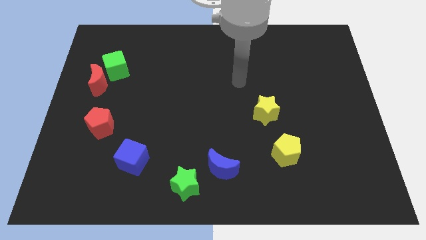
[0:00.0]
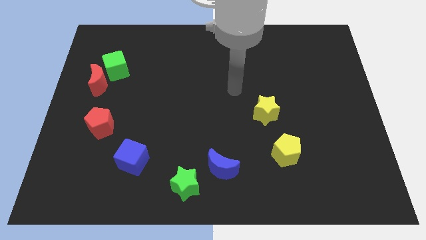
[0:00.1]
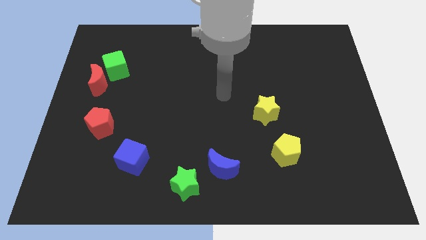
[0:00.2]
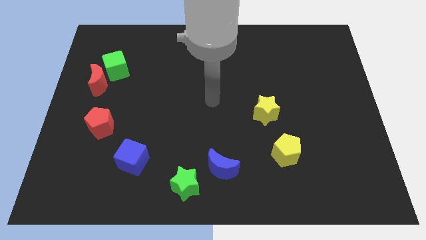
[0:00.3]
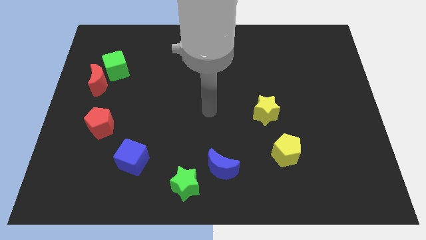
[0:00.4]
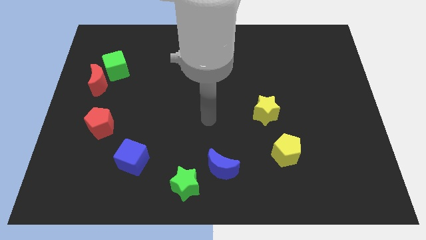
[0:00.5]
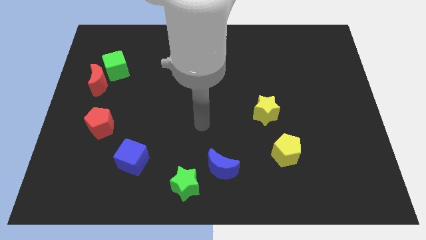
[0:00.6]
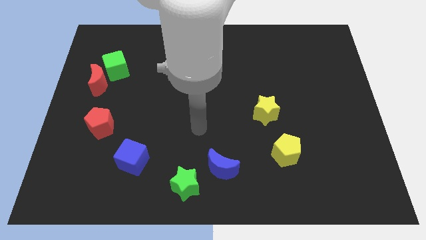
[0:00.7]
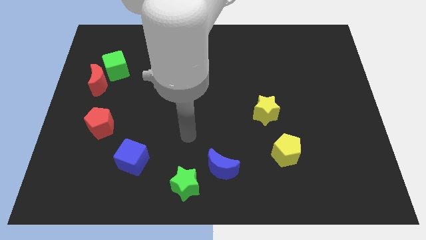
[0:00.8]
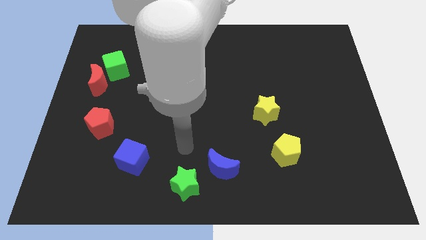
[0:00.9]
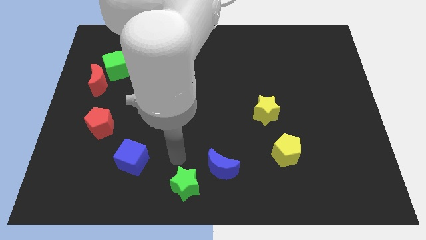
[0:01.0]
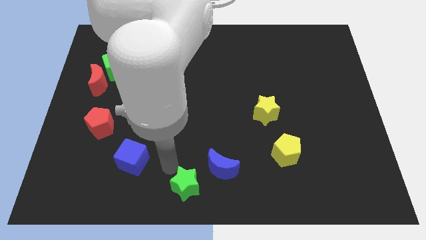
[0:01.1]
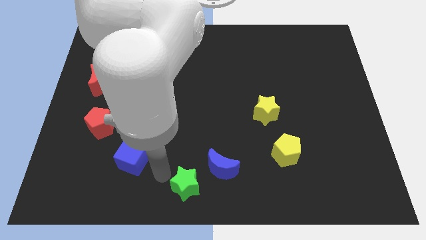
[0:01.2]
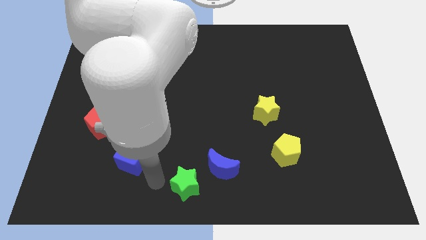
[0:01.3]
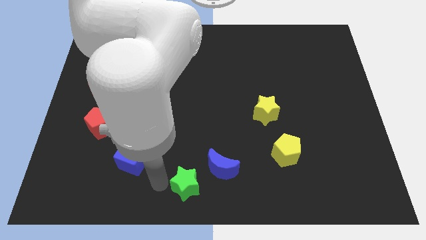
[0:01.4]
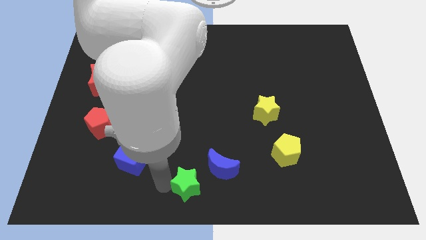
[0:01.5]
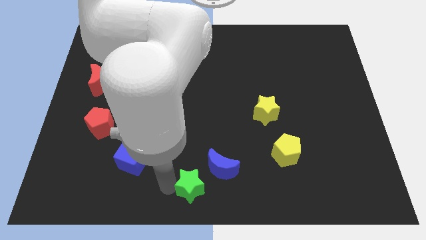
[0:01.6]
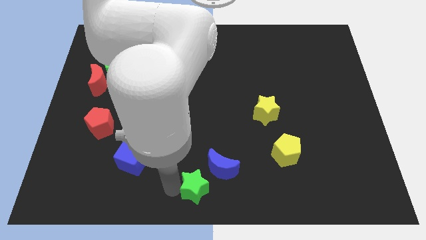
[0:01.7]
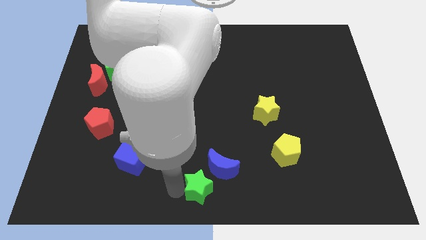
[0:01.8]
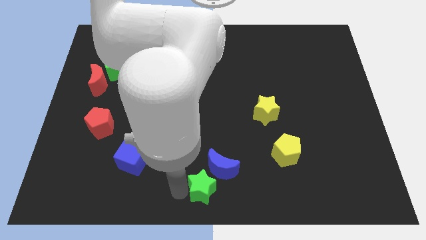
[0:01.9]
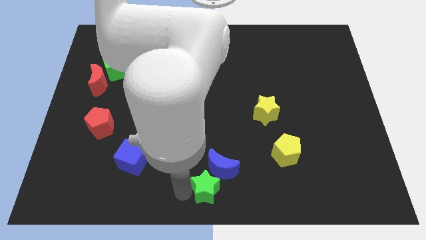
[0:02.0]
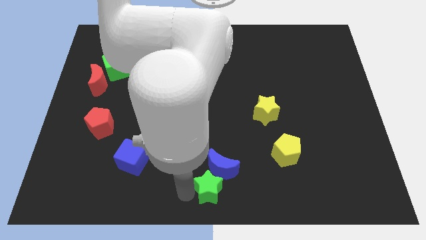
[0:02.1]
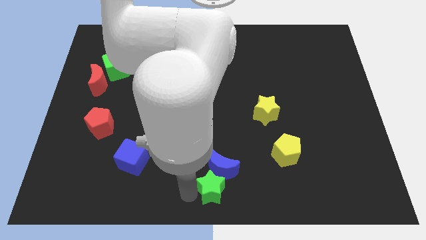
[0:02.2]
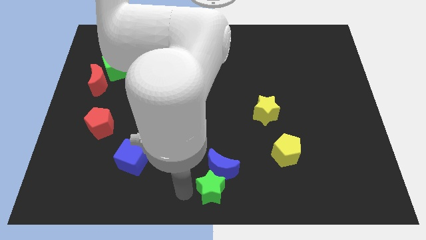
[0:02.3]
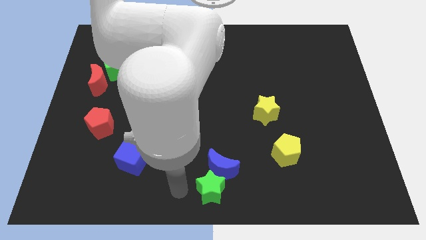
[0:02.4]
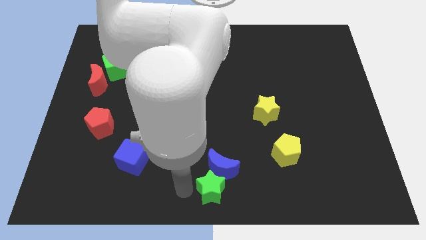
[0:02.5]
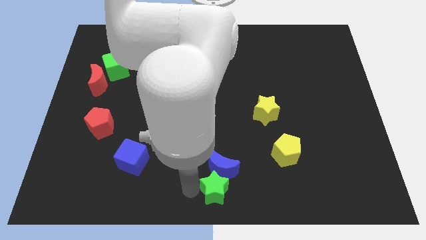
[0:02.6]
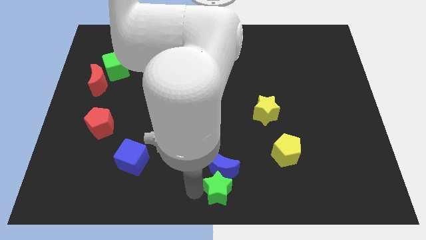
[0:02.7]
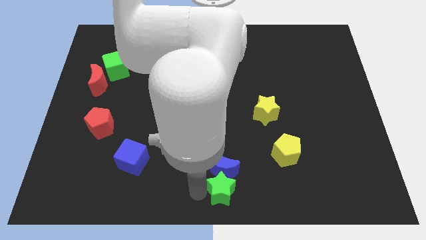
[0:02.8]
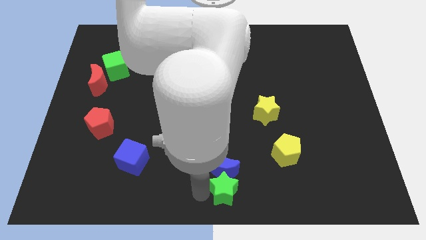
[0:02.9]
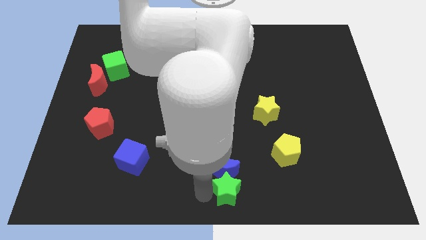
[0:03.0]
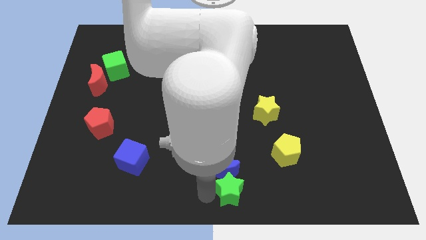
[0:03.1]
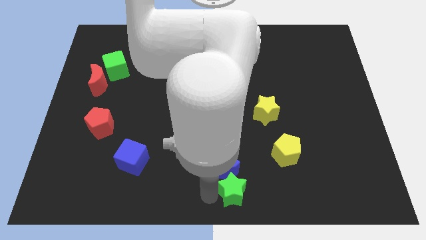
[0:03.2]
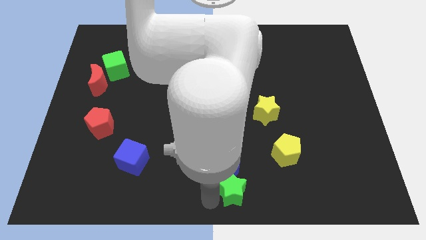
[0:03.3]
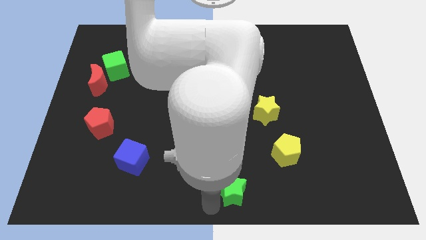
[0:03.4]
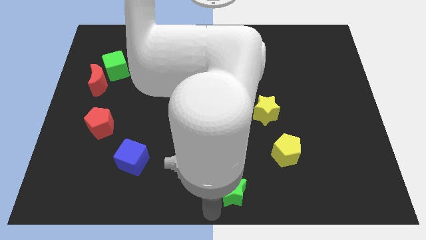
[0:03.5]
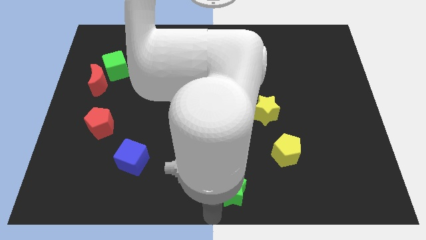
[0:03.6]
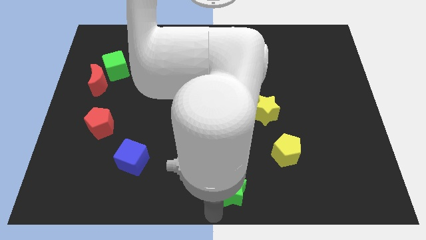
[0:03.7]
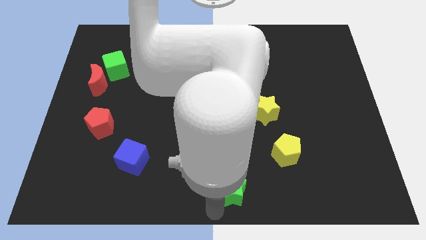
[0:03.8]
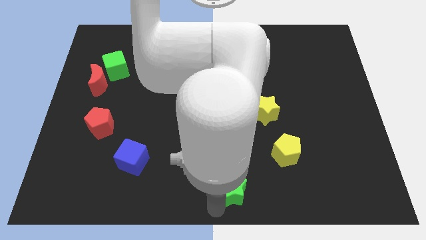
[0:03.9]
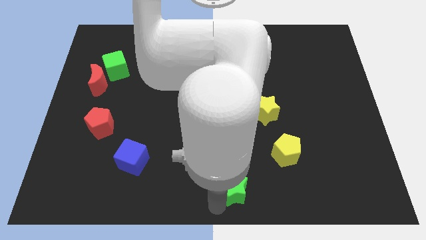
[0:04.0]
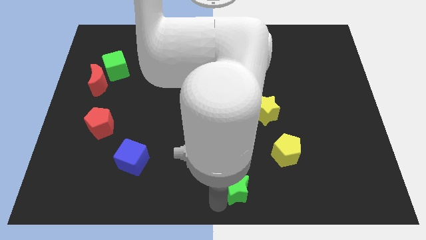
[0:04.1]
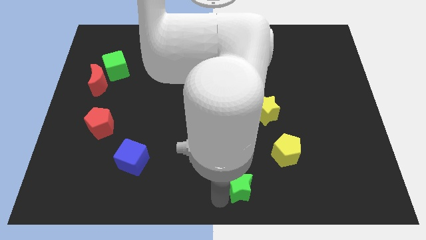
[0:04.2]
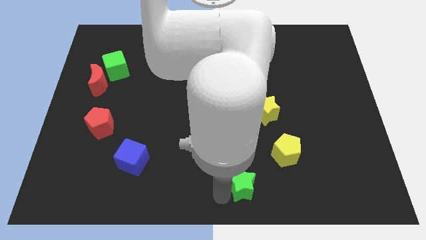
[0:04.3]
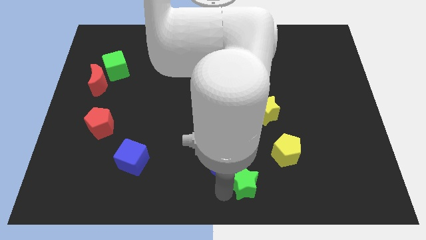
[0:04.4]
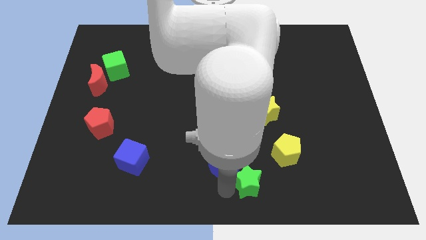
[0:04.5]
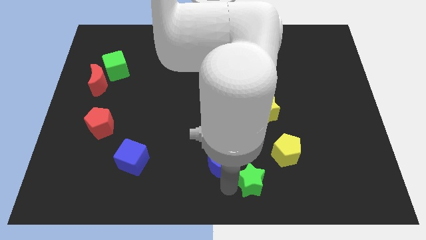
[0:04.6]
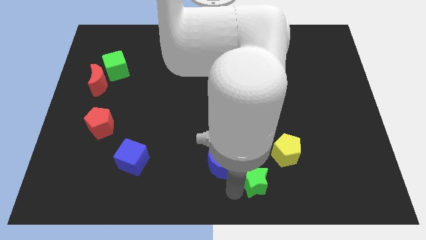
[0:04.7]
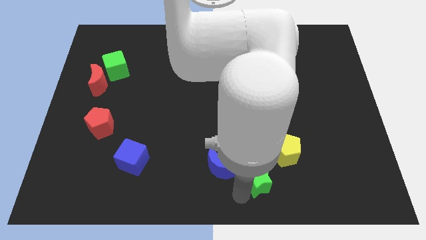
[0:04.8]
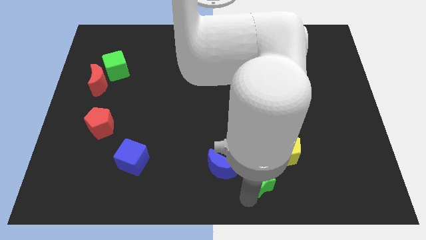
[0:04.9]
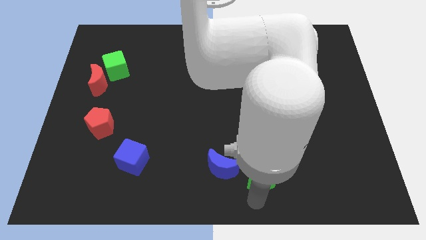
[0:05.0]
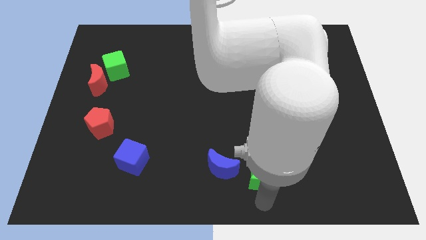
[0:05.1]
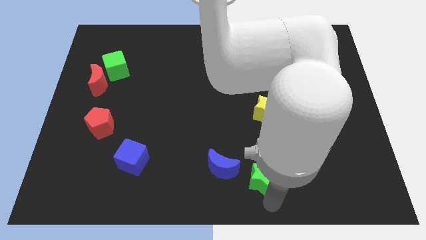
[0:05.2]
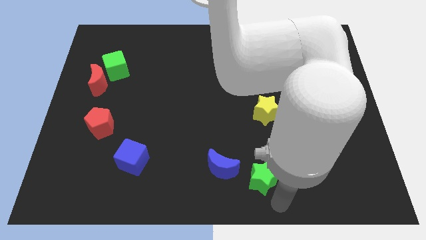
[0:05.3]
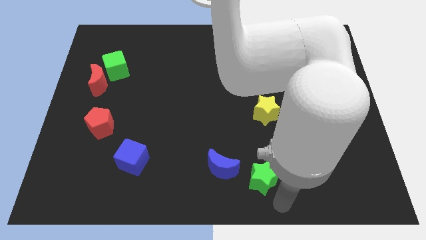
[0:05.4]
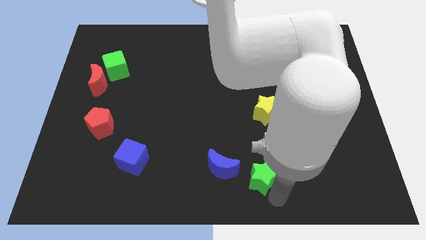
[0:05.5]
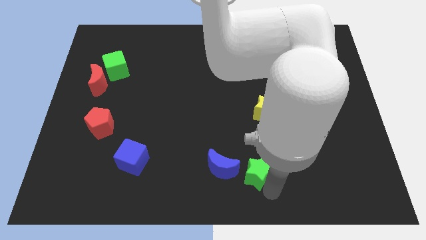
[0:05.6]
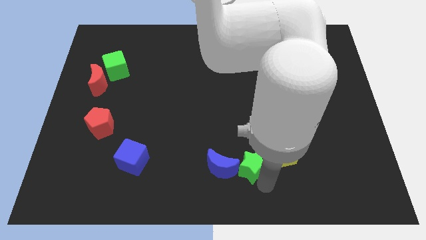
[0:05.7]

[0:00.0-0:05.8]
put the green star to the bottom side of the yellow star

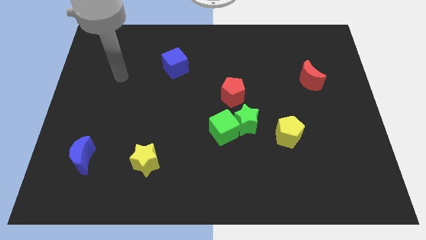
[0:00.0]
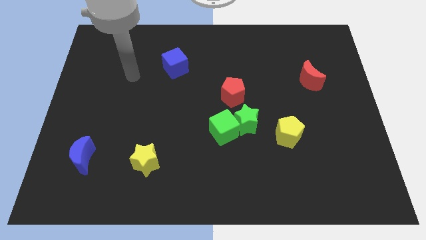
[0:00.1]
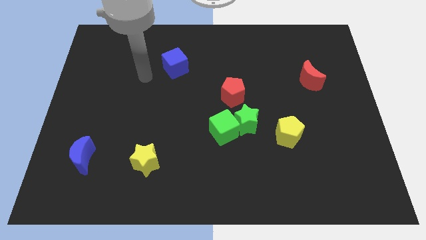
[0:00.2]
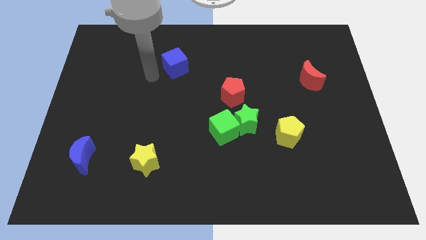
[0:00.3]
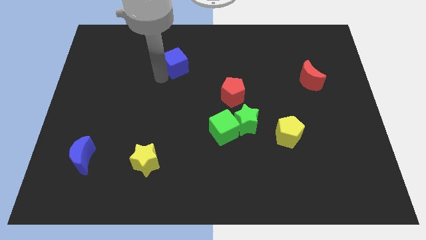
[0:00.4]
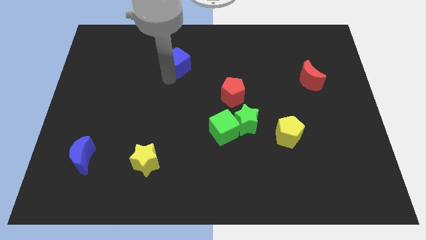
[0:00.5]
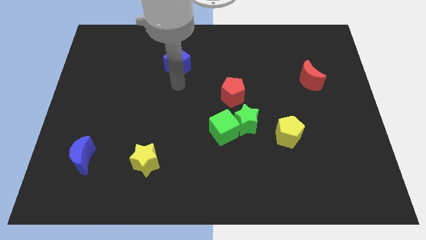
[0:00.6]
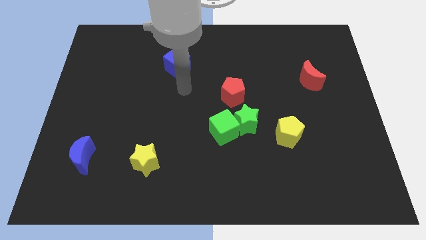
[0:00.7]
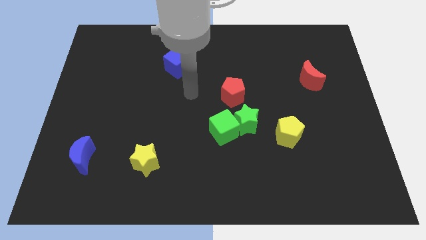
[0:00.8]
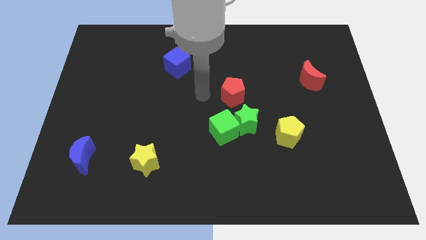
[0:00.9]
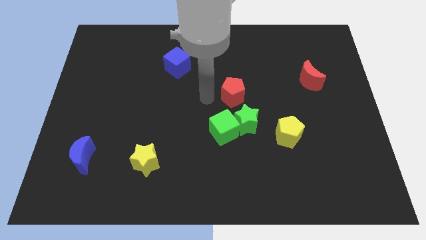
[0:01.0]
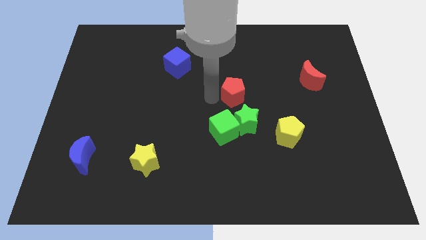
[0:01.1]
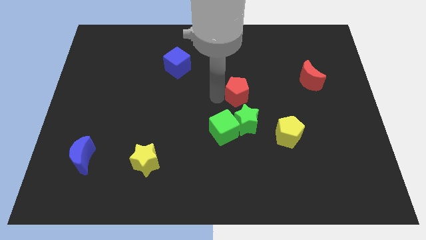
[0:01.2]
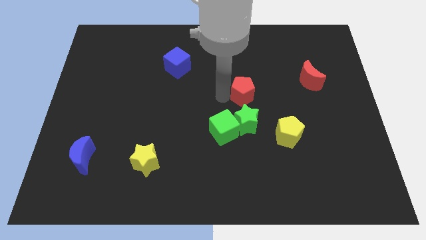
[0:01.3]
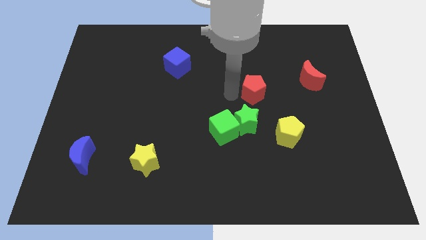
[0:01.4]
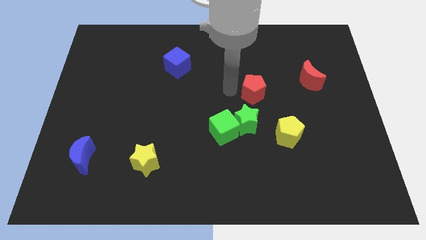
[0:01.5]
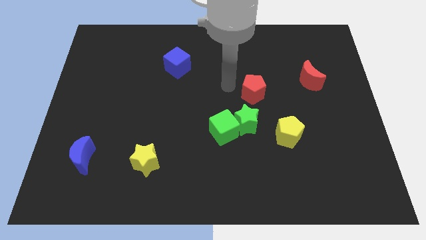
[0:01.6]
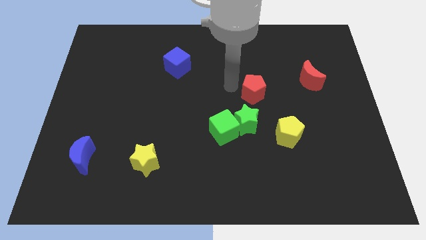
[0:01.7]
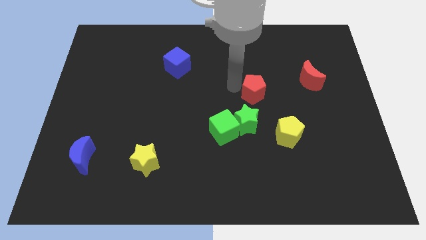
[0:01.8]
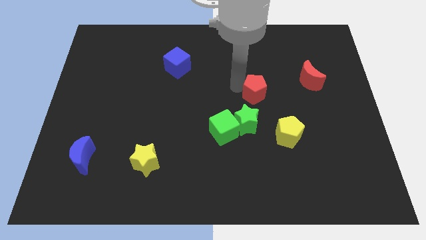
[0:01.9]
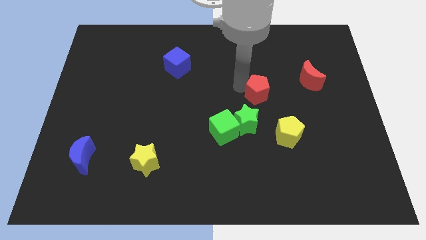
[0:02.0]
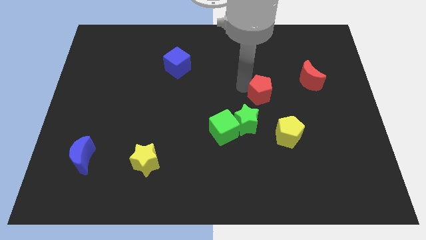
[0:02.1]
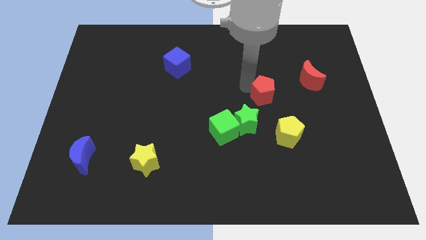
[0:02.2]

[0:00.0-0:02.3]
slide the red pentagon to the top side of the yellow pentagon
